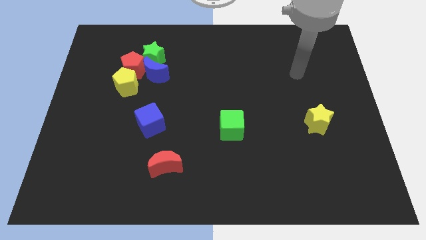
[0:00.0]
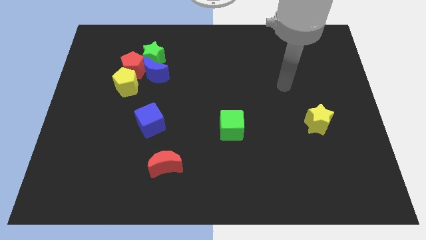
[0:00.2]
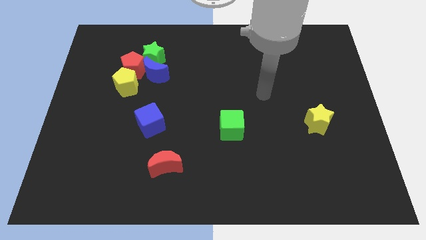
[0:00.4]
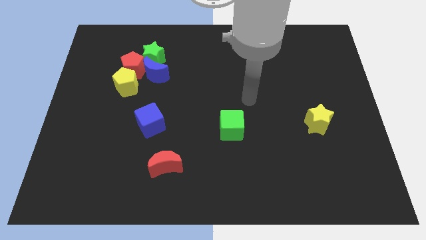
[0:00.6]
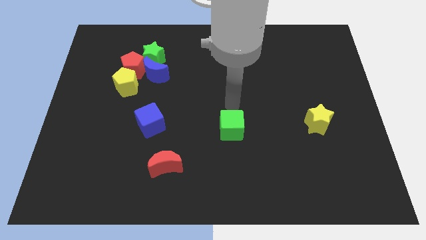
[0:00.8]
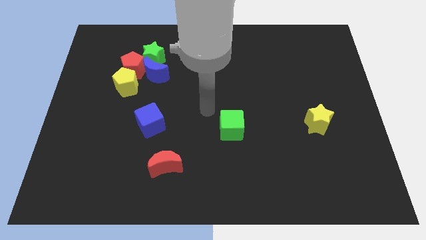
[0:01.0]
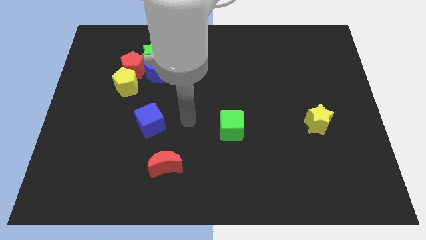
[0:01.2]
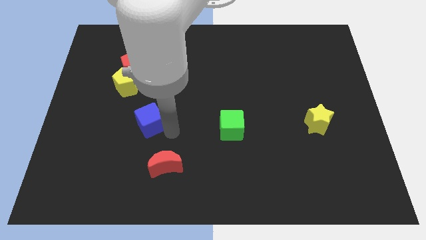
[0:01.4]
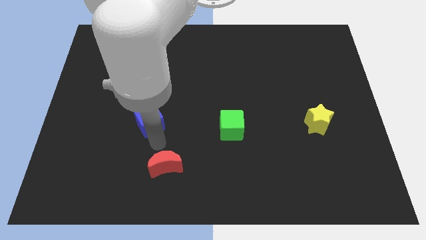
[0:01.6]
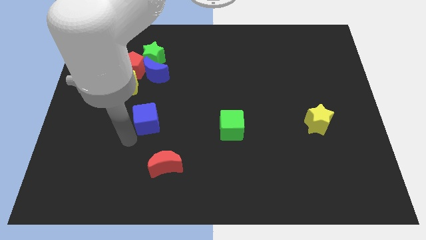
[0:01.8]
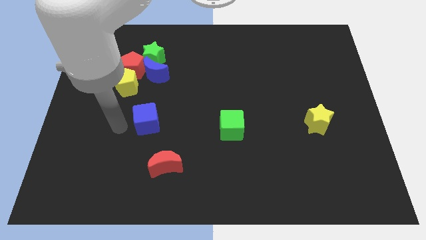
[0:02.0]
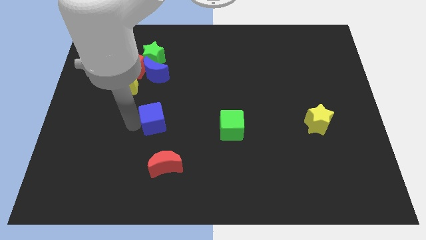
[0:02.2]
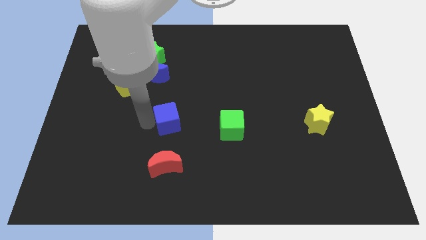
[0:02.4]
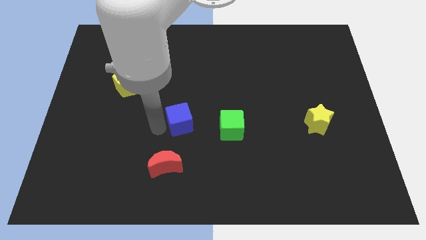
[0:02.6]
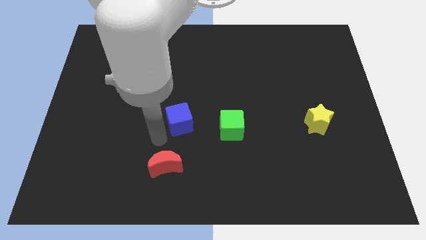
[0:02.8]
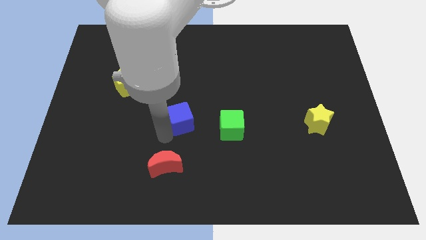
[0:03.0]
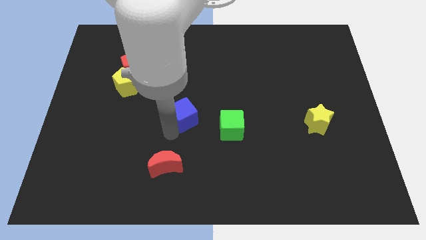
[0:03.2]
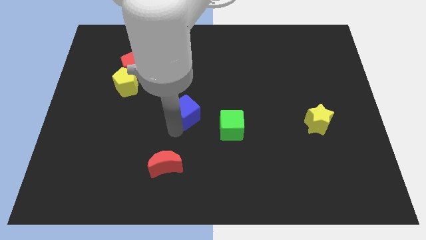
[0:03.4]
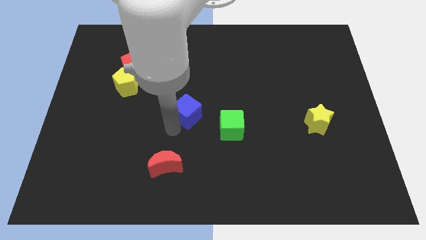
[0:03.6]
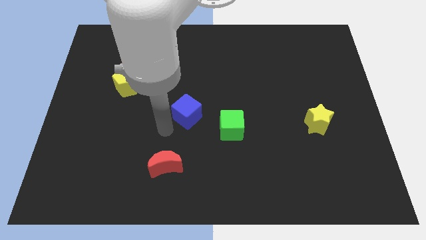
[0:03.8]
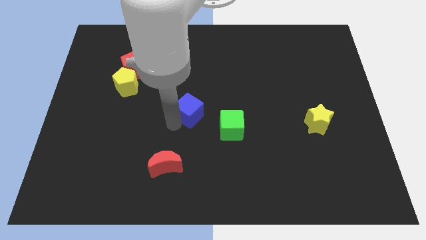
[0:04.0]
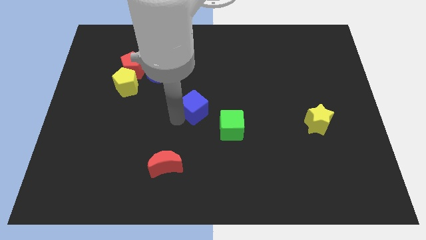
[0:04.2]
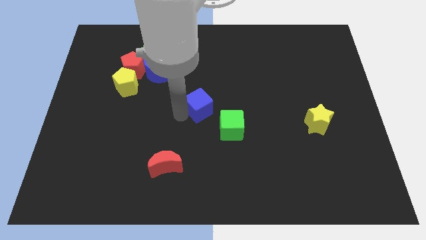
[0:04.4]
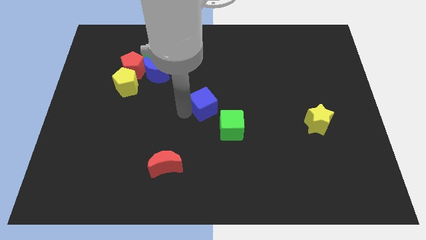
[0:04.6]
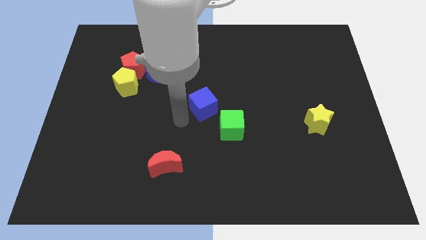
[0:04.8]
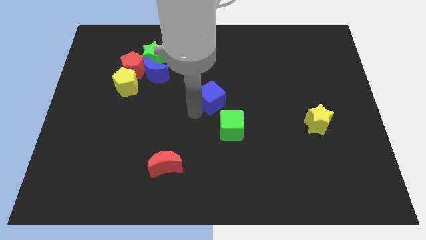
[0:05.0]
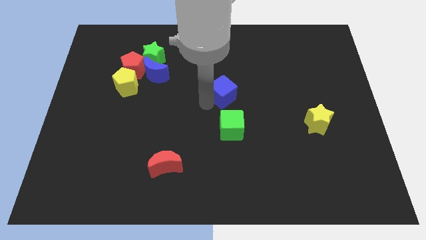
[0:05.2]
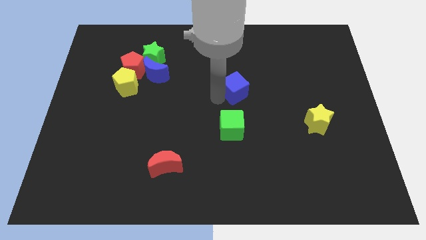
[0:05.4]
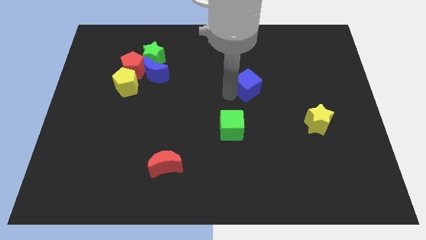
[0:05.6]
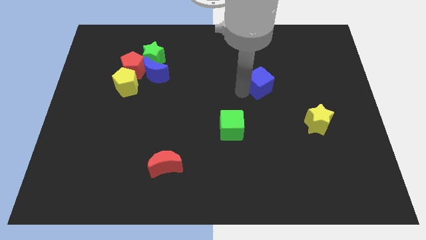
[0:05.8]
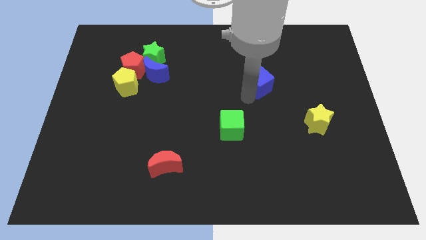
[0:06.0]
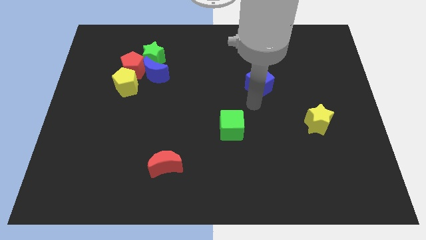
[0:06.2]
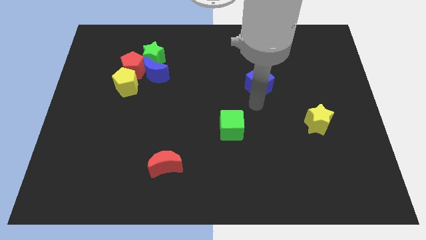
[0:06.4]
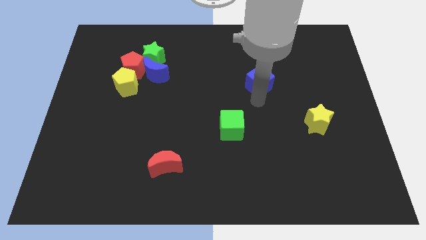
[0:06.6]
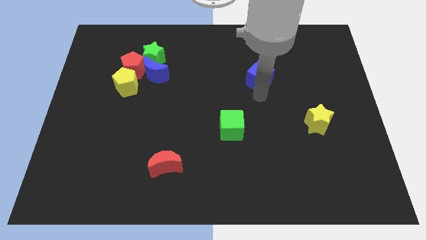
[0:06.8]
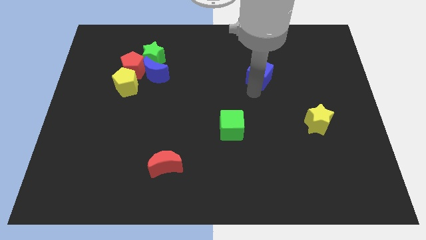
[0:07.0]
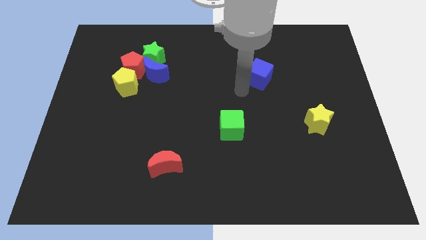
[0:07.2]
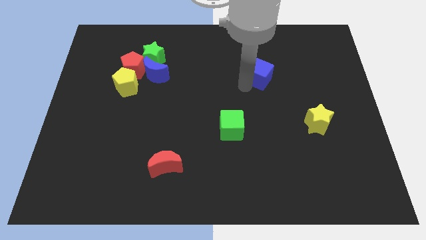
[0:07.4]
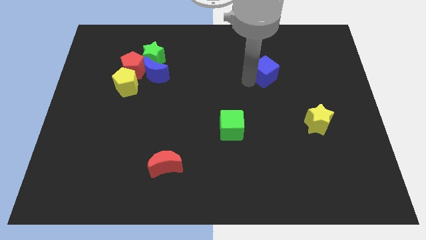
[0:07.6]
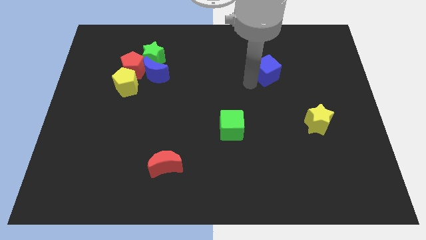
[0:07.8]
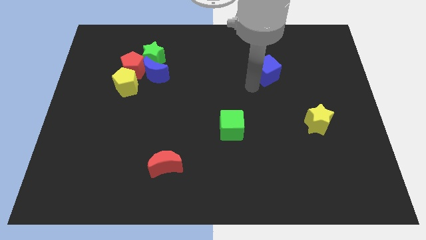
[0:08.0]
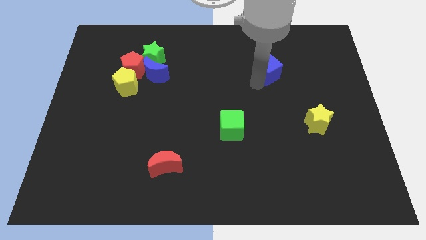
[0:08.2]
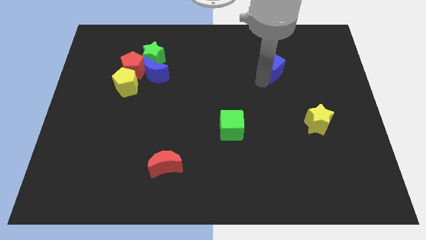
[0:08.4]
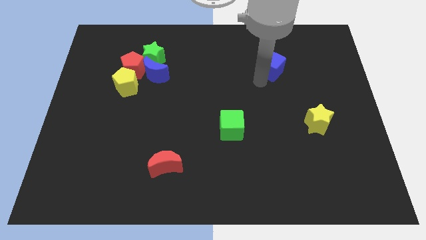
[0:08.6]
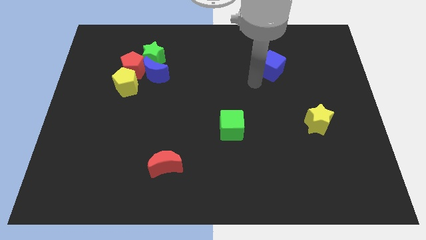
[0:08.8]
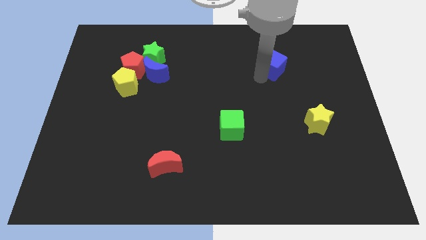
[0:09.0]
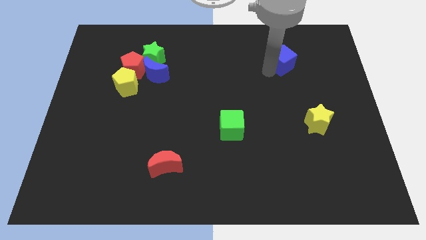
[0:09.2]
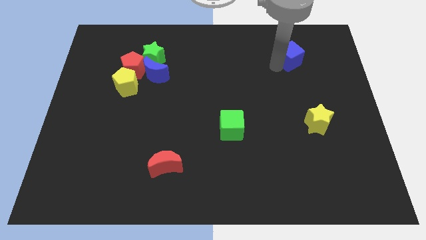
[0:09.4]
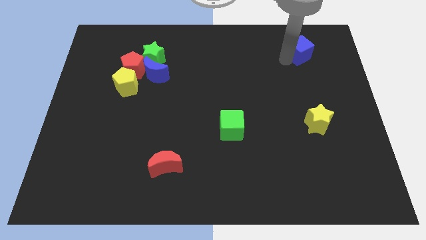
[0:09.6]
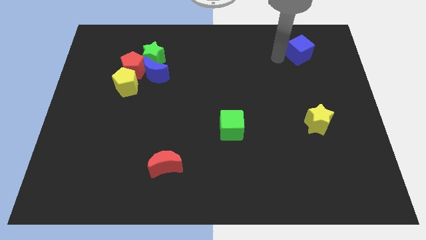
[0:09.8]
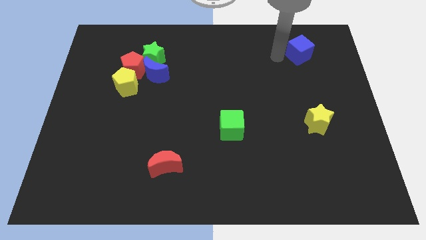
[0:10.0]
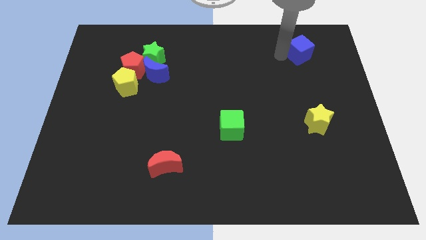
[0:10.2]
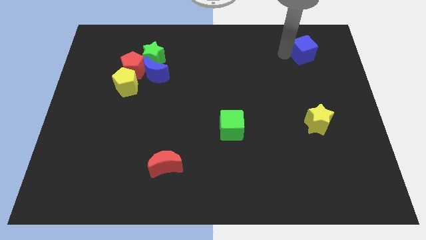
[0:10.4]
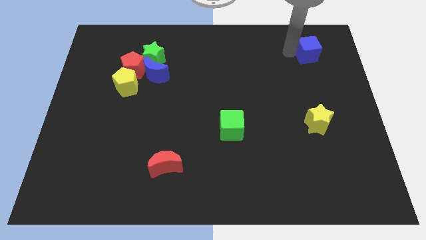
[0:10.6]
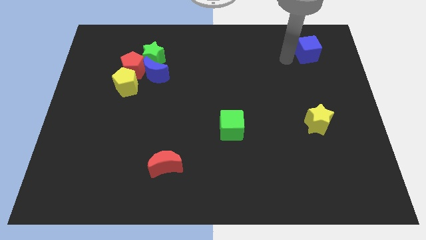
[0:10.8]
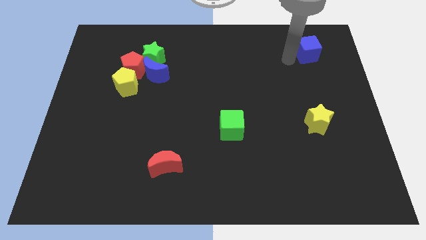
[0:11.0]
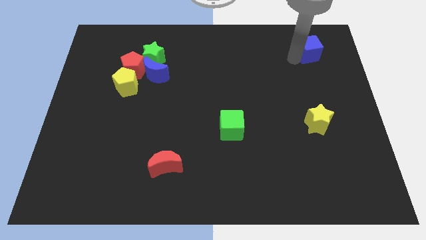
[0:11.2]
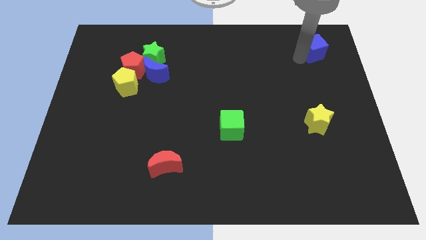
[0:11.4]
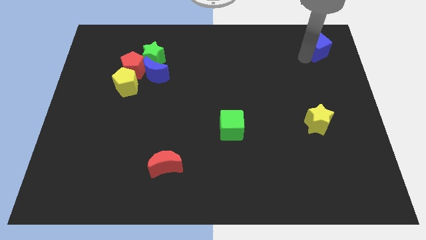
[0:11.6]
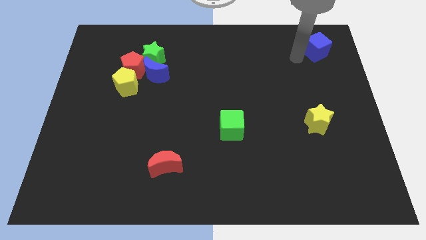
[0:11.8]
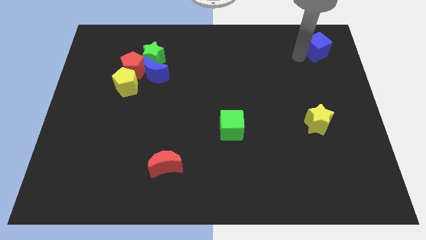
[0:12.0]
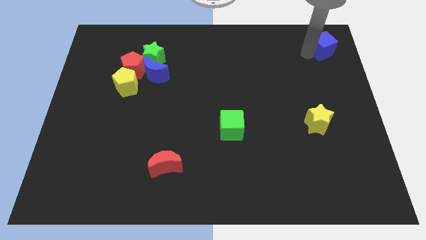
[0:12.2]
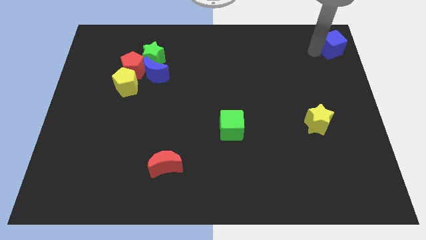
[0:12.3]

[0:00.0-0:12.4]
slide the blue cube to the upper right corner

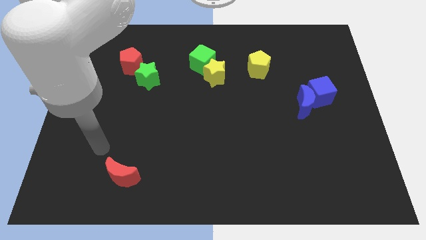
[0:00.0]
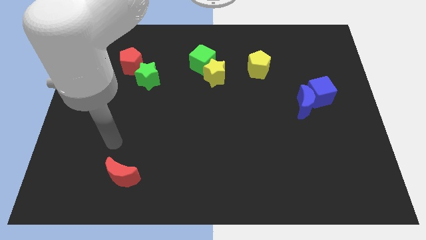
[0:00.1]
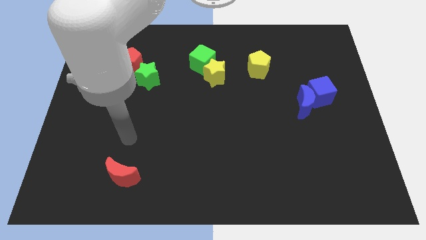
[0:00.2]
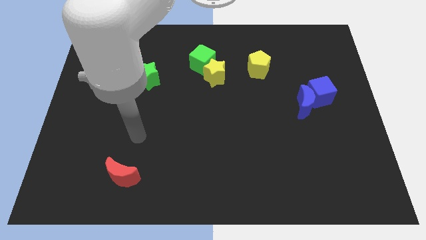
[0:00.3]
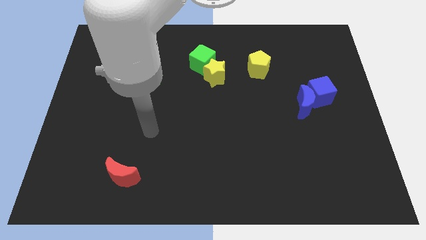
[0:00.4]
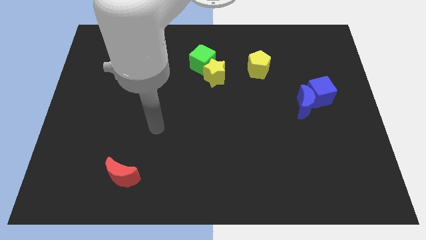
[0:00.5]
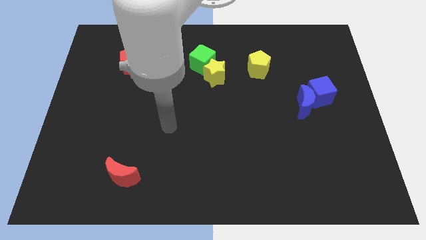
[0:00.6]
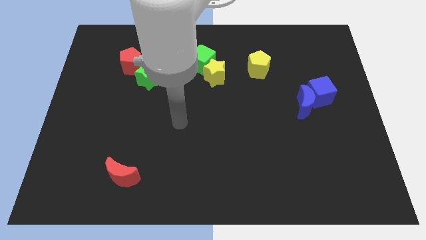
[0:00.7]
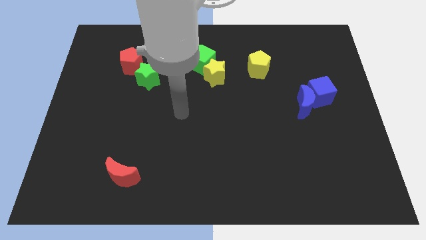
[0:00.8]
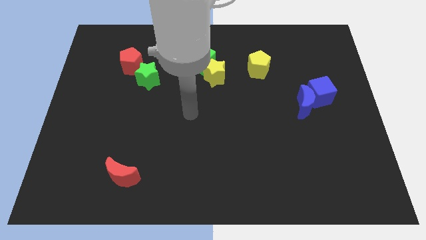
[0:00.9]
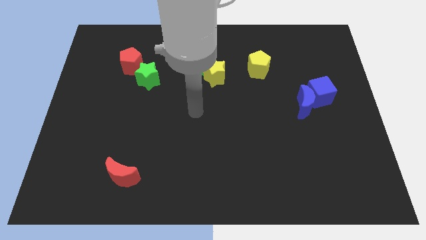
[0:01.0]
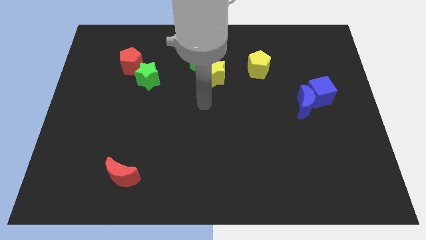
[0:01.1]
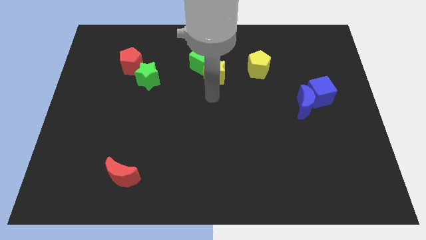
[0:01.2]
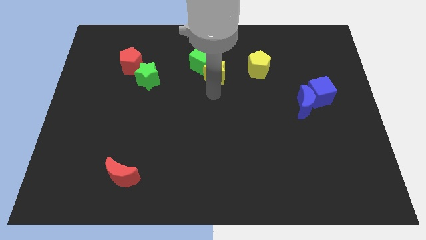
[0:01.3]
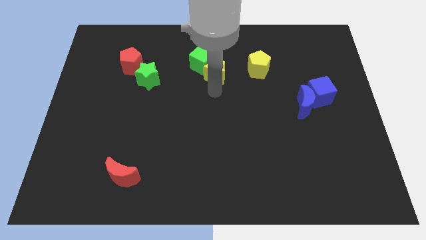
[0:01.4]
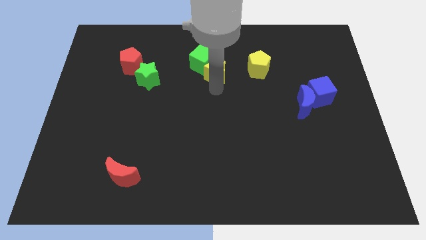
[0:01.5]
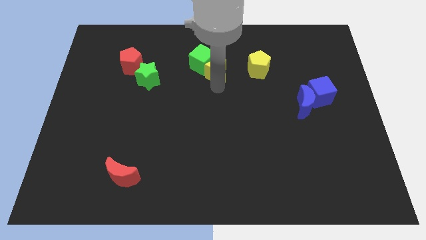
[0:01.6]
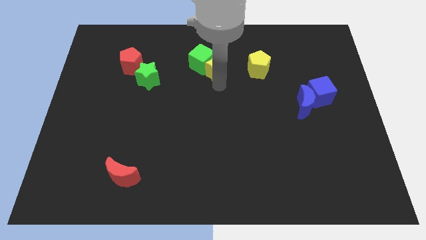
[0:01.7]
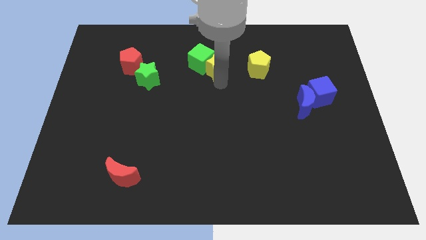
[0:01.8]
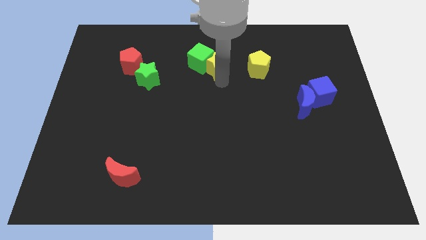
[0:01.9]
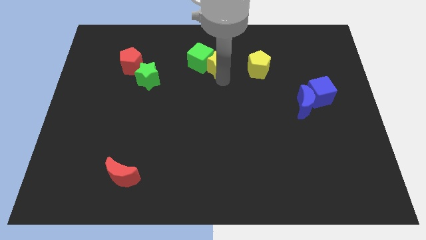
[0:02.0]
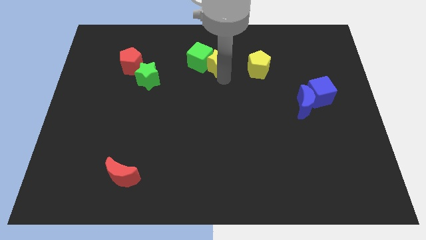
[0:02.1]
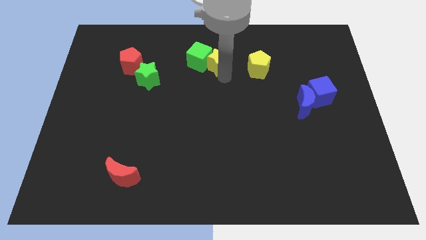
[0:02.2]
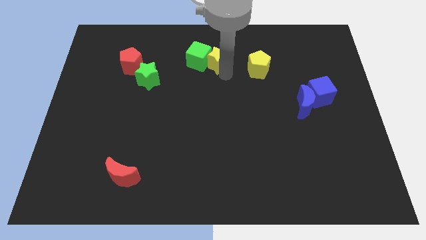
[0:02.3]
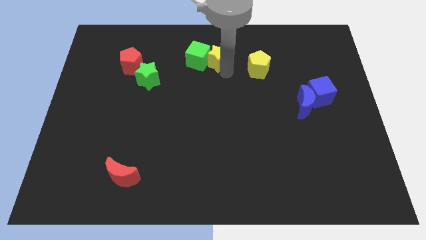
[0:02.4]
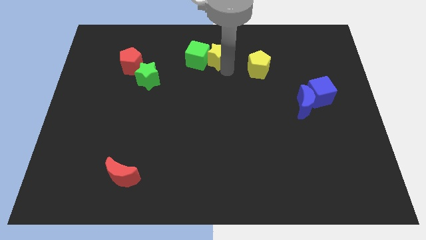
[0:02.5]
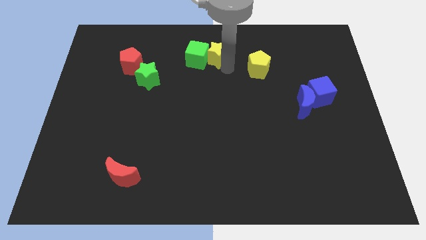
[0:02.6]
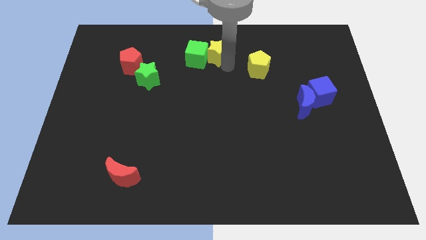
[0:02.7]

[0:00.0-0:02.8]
push the yellow star to the towards your base
